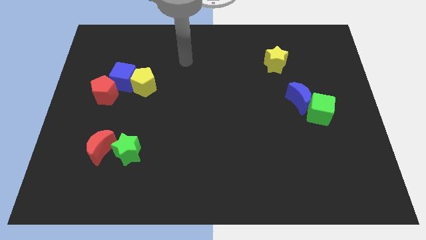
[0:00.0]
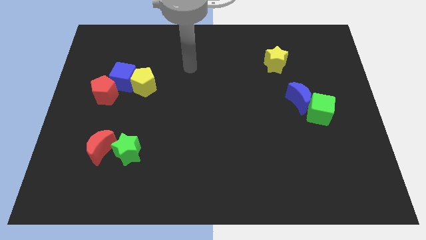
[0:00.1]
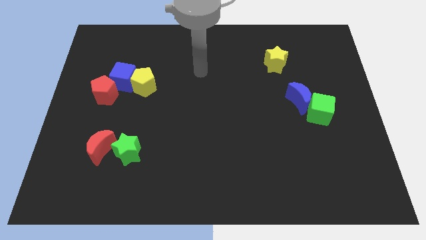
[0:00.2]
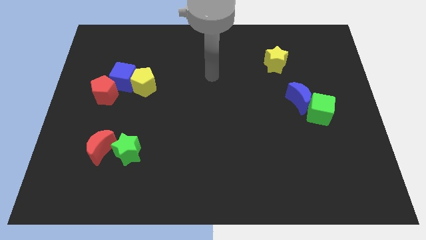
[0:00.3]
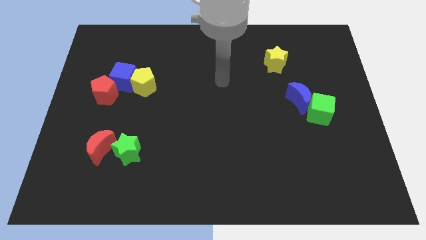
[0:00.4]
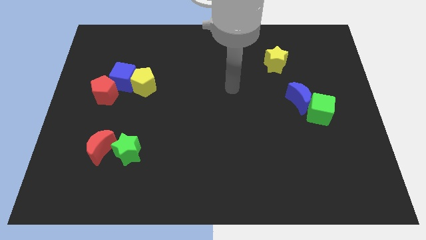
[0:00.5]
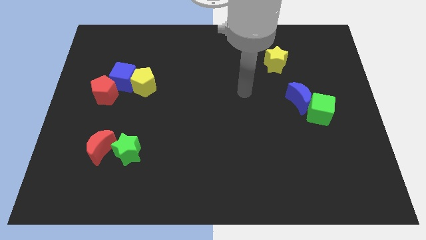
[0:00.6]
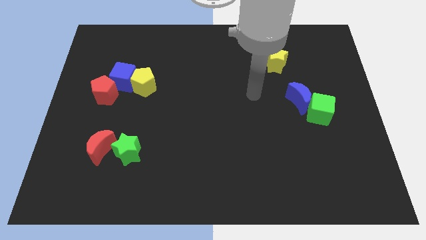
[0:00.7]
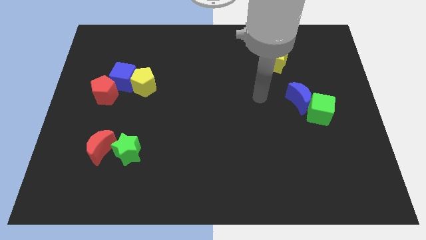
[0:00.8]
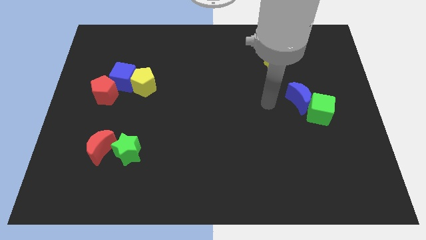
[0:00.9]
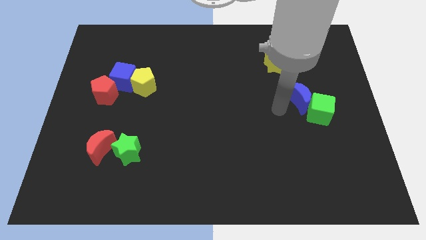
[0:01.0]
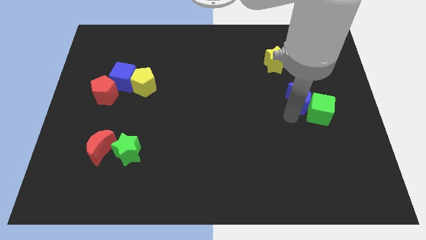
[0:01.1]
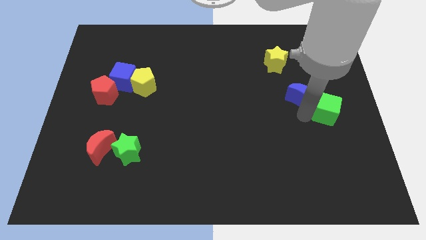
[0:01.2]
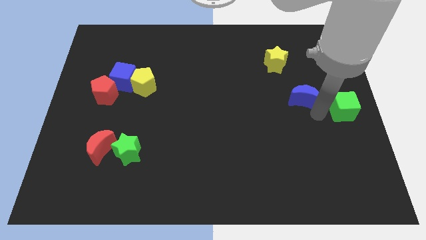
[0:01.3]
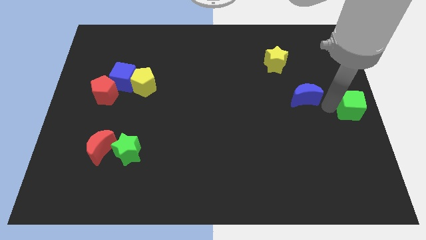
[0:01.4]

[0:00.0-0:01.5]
separate the blue moon from the green cube

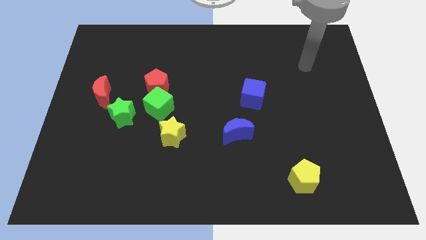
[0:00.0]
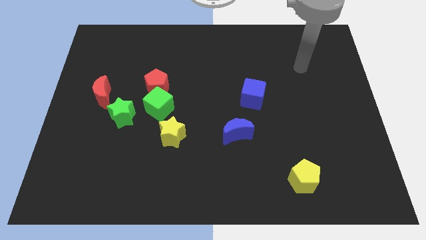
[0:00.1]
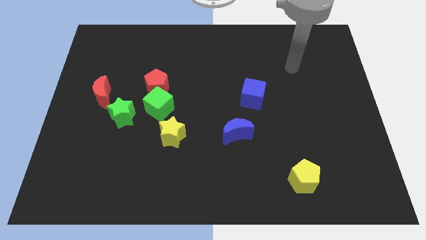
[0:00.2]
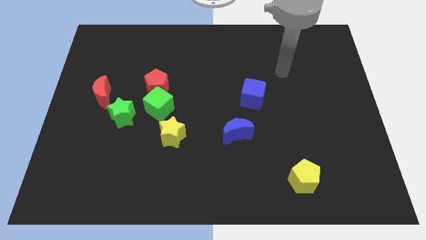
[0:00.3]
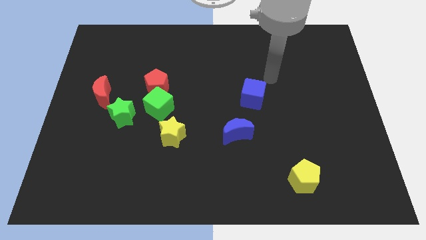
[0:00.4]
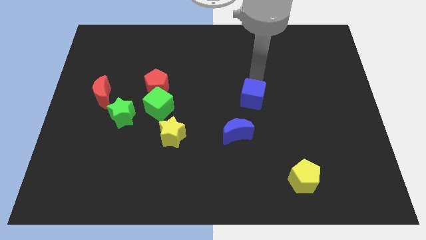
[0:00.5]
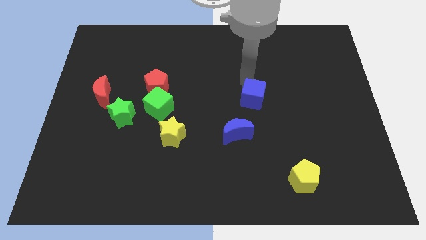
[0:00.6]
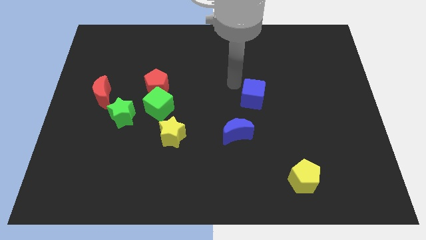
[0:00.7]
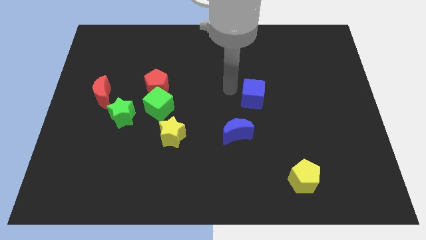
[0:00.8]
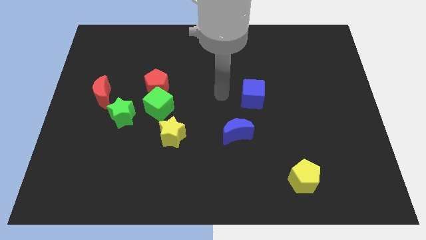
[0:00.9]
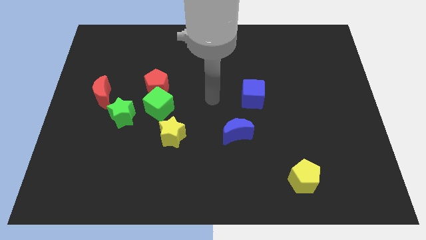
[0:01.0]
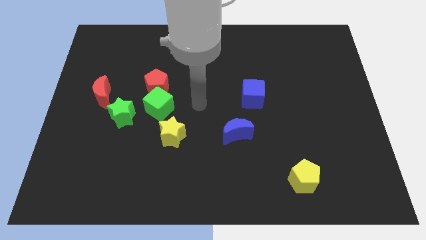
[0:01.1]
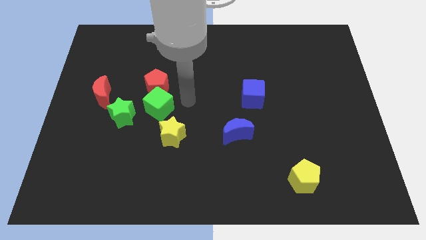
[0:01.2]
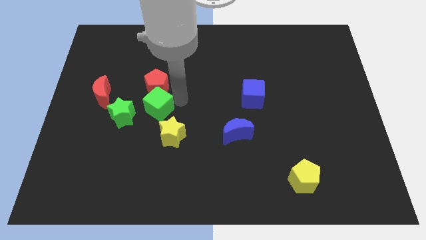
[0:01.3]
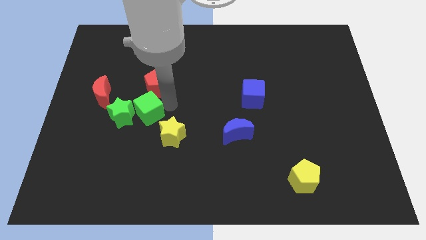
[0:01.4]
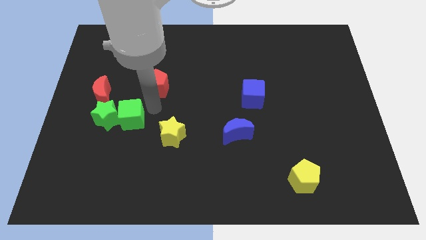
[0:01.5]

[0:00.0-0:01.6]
move the red pentagon away from the green cube

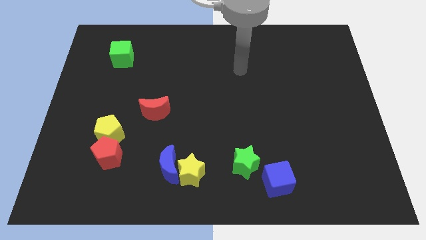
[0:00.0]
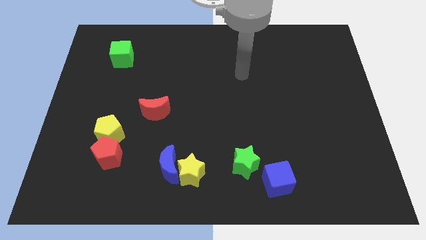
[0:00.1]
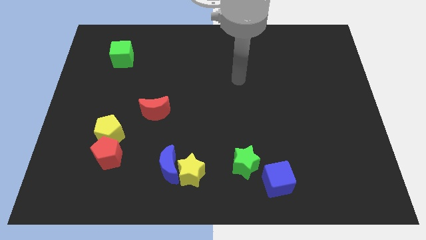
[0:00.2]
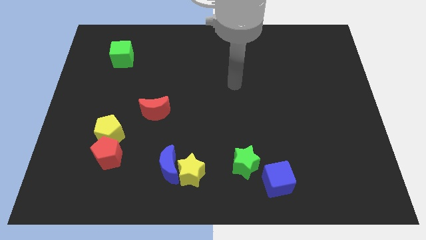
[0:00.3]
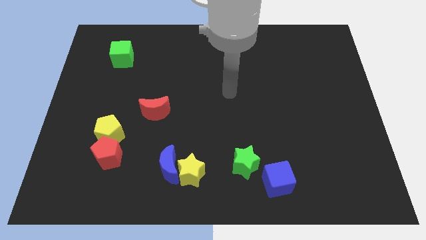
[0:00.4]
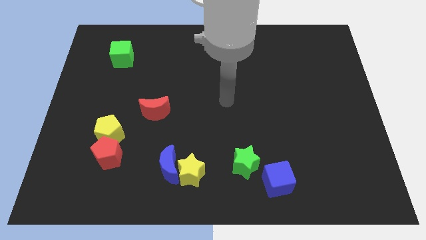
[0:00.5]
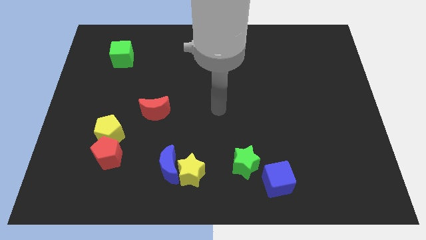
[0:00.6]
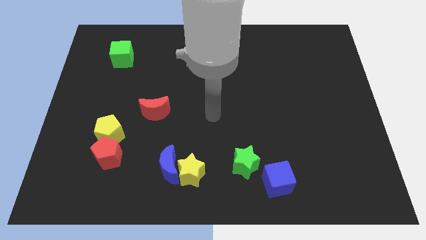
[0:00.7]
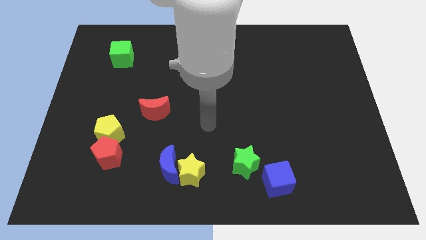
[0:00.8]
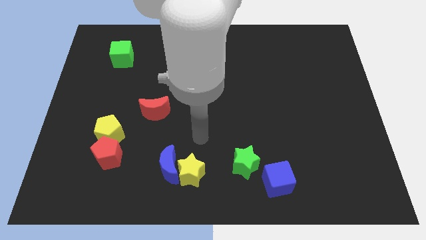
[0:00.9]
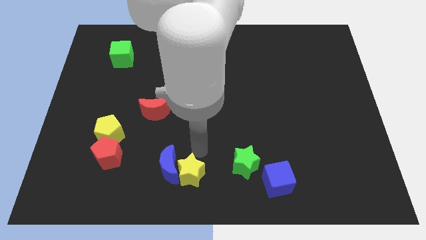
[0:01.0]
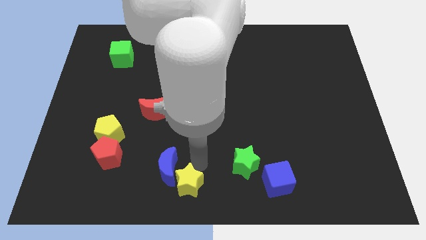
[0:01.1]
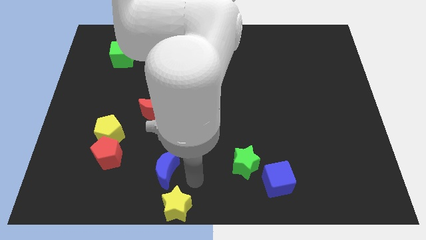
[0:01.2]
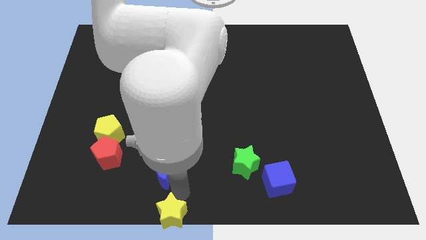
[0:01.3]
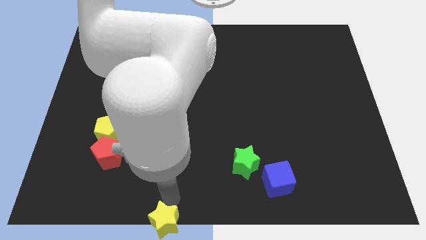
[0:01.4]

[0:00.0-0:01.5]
separate the blue moon from the yellow star

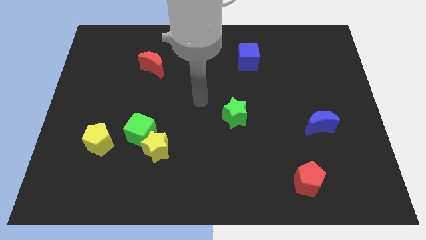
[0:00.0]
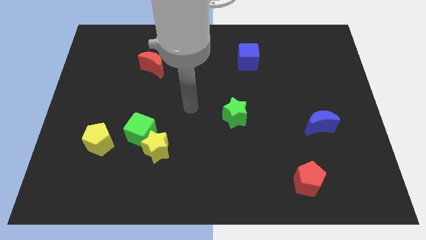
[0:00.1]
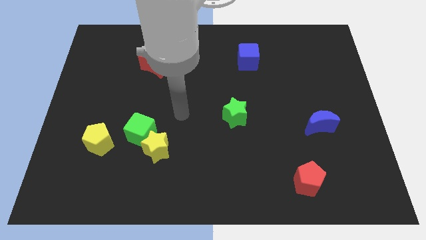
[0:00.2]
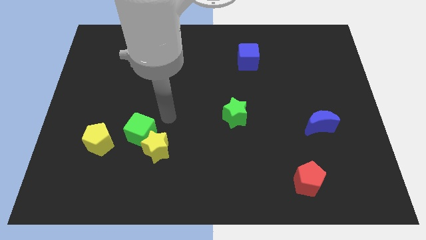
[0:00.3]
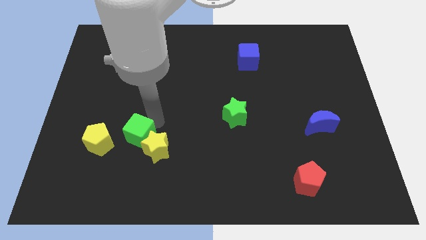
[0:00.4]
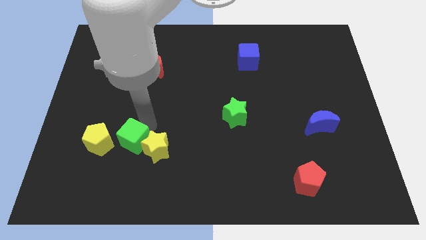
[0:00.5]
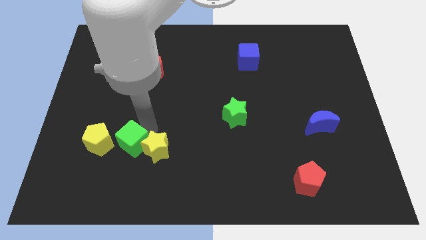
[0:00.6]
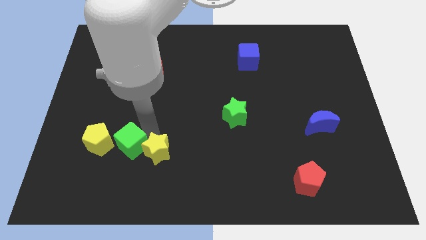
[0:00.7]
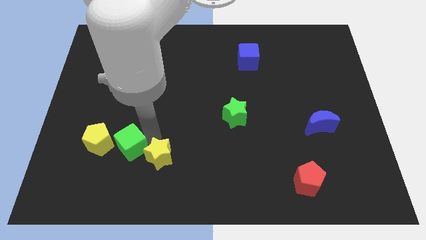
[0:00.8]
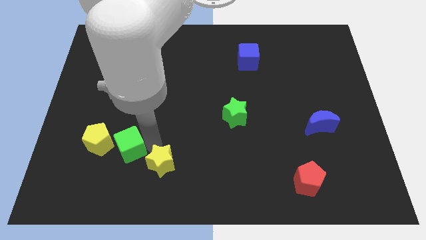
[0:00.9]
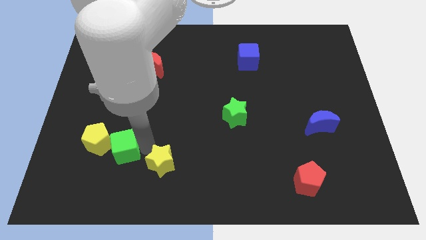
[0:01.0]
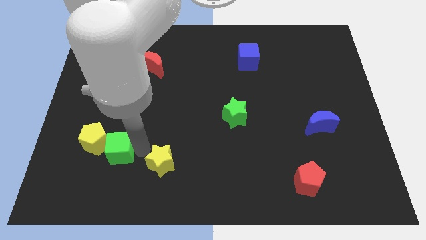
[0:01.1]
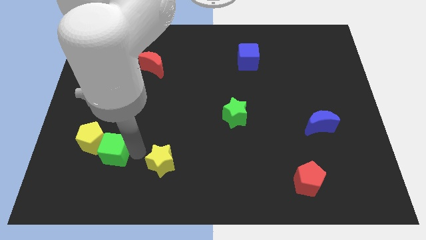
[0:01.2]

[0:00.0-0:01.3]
separate the yellow star from the green cube

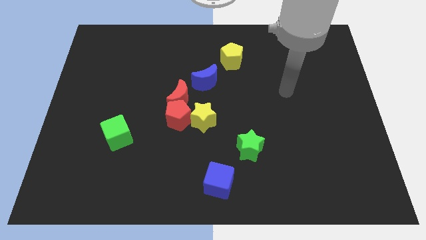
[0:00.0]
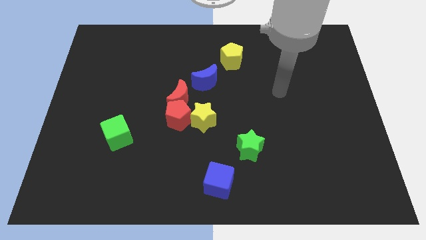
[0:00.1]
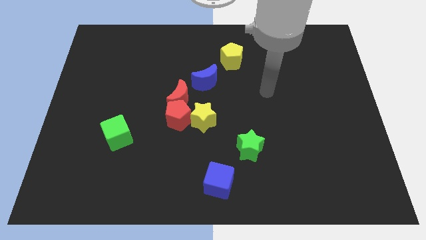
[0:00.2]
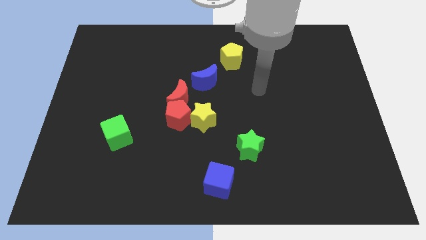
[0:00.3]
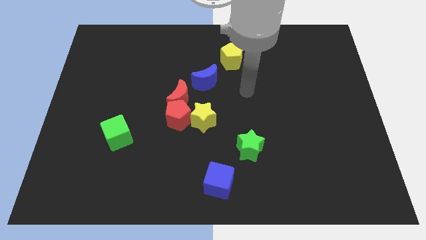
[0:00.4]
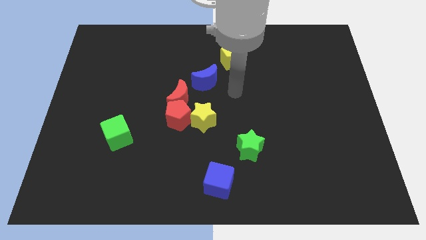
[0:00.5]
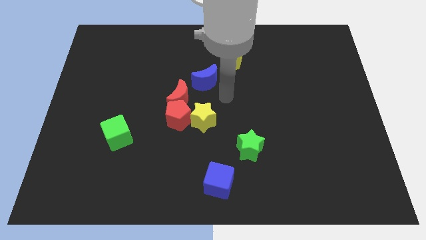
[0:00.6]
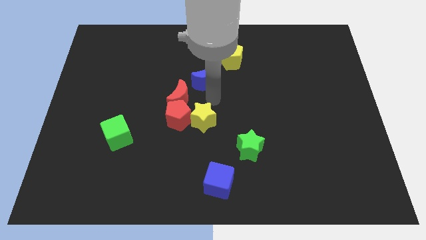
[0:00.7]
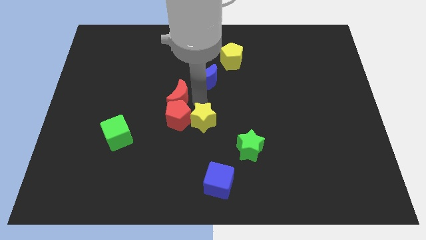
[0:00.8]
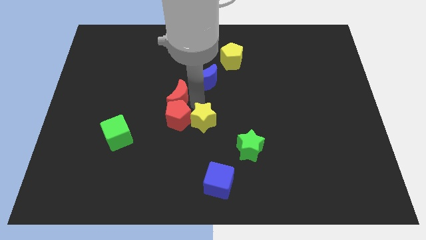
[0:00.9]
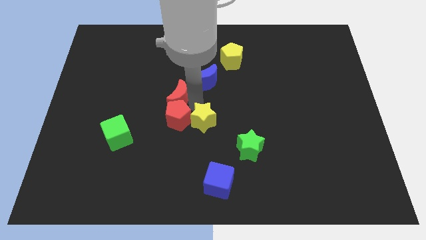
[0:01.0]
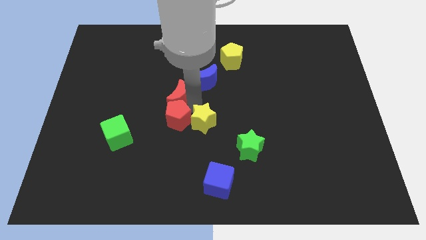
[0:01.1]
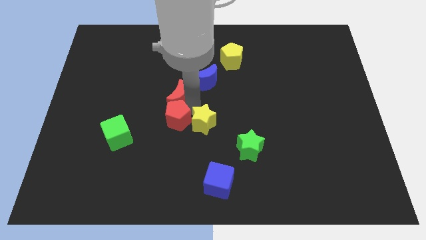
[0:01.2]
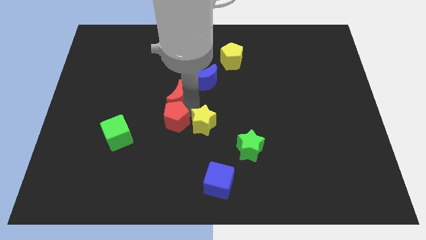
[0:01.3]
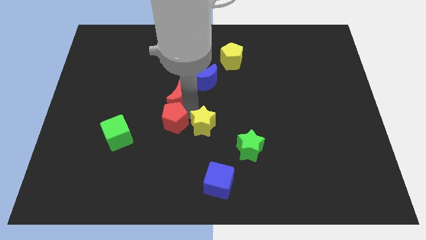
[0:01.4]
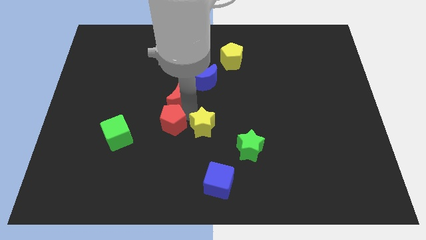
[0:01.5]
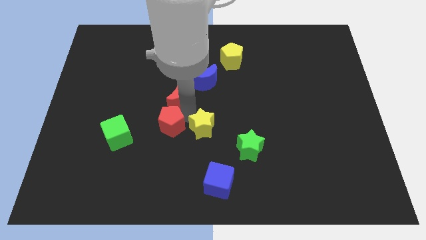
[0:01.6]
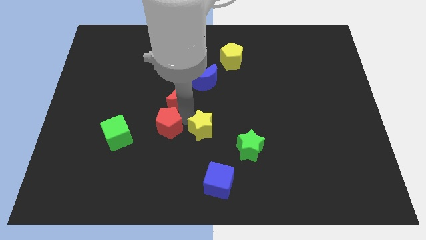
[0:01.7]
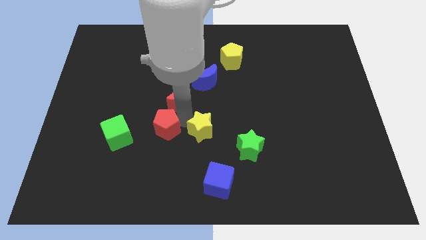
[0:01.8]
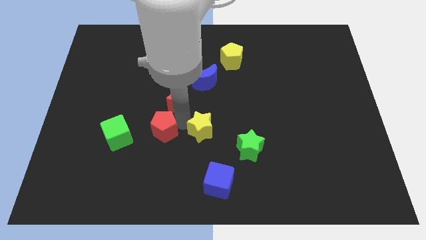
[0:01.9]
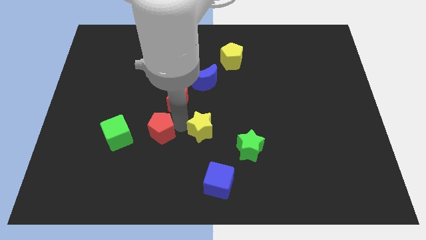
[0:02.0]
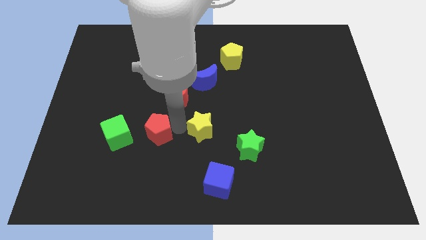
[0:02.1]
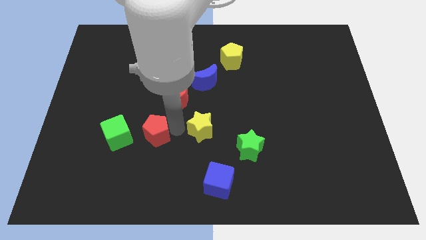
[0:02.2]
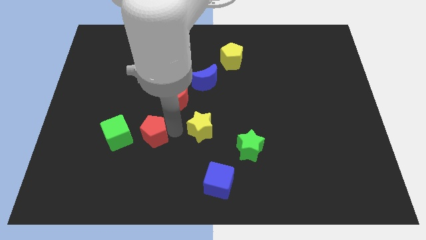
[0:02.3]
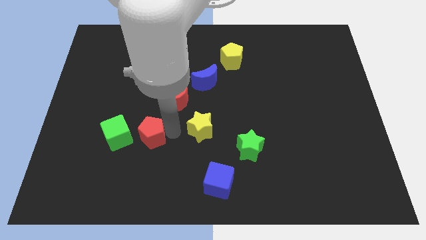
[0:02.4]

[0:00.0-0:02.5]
pull the red pentagon apart from the red moon and yellow star

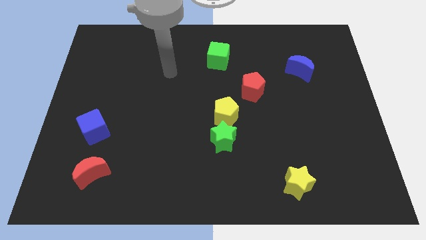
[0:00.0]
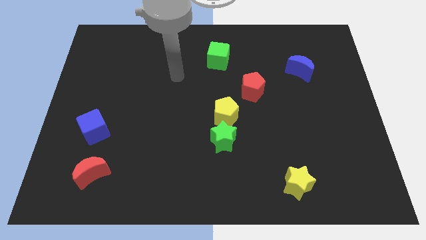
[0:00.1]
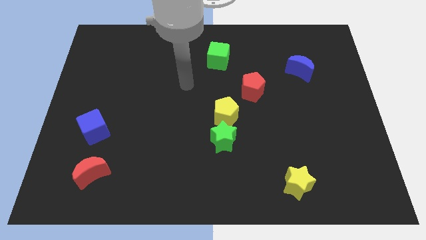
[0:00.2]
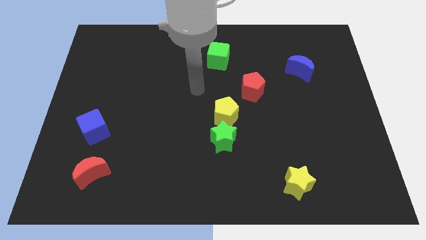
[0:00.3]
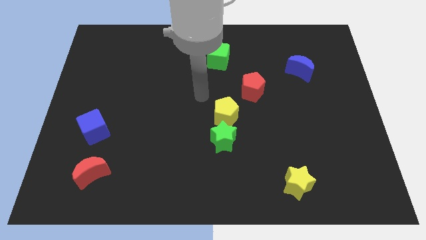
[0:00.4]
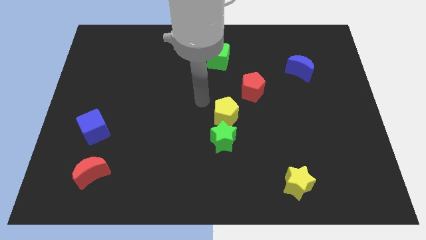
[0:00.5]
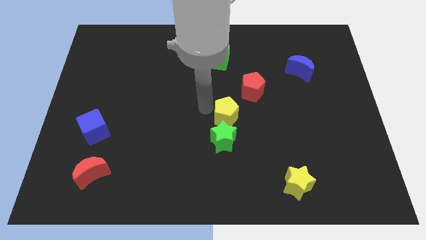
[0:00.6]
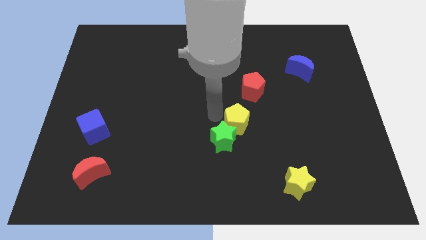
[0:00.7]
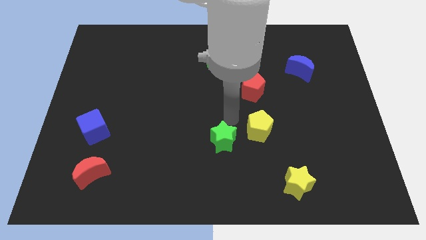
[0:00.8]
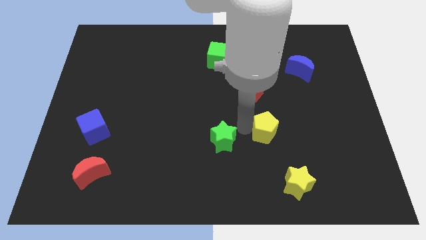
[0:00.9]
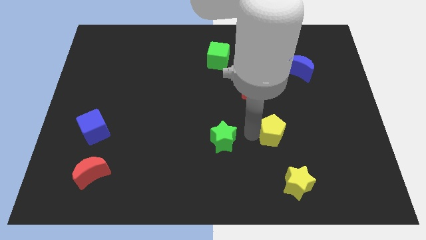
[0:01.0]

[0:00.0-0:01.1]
move the green star away from the yellow pentagon
